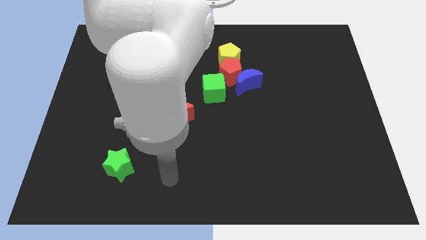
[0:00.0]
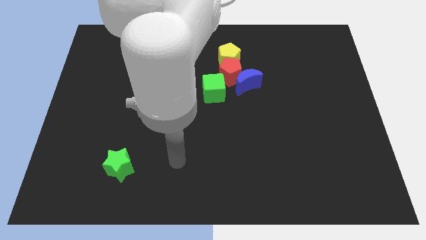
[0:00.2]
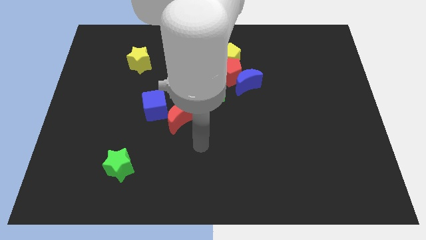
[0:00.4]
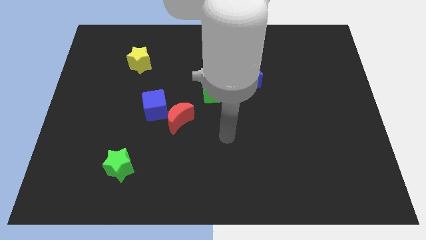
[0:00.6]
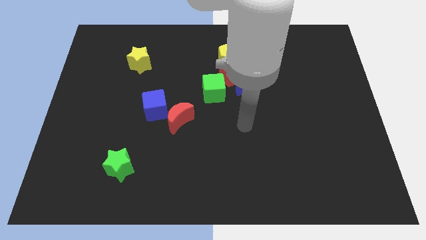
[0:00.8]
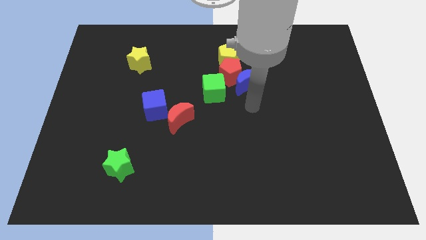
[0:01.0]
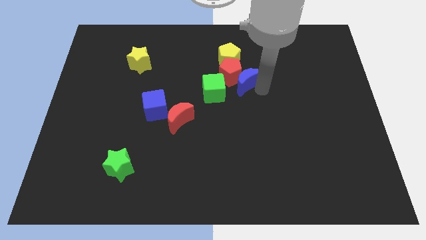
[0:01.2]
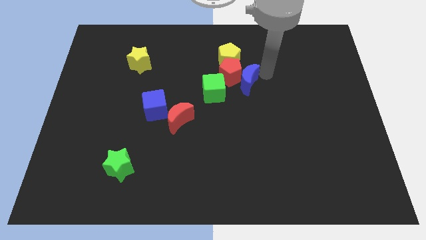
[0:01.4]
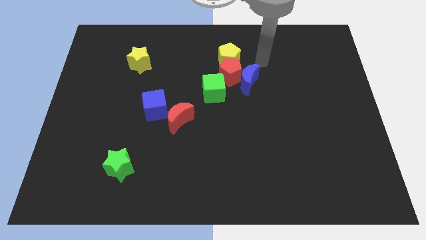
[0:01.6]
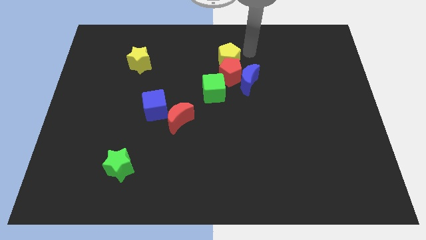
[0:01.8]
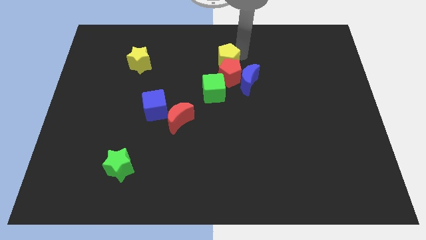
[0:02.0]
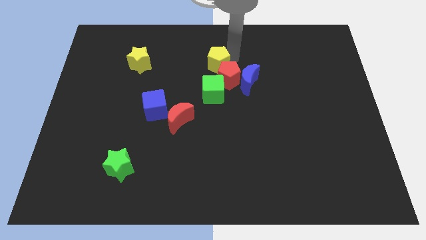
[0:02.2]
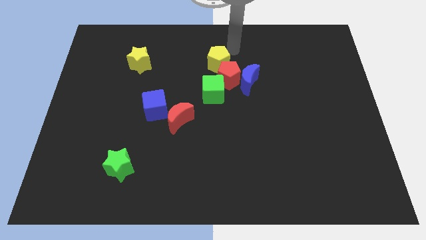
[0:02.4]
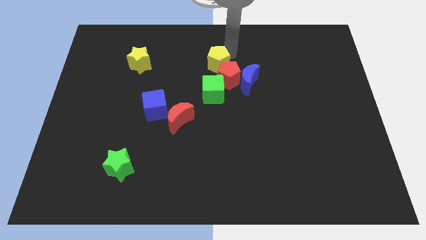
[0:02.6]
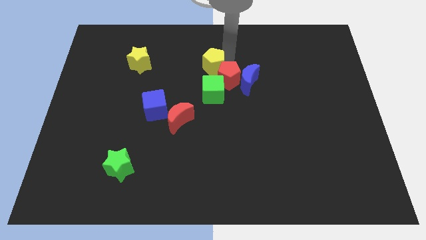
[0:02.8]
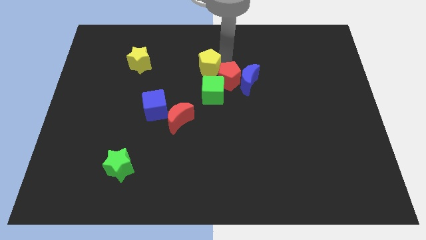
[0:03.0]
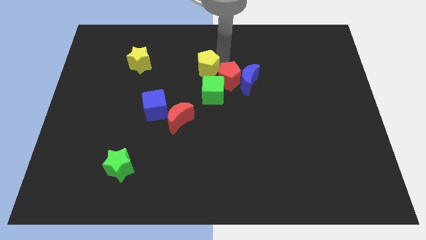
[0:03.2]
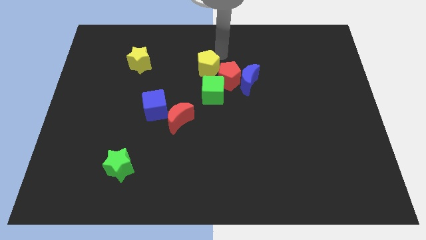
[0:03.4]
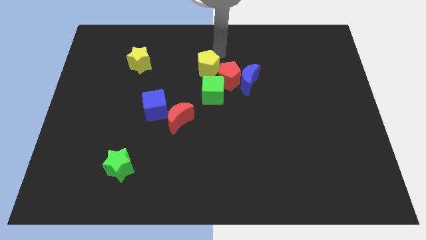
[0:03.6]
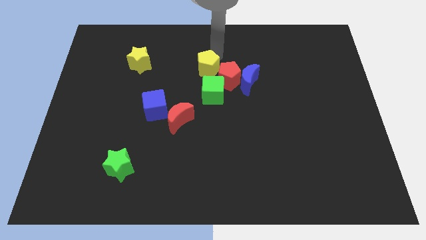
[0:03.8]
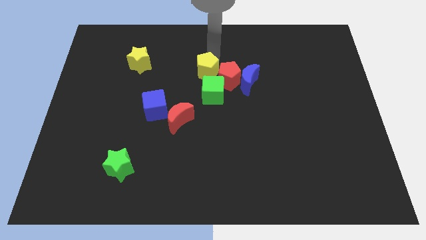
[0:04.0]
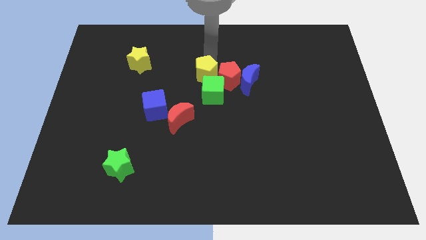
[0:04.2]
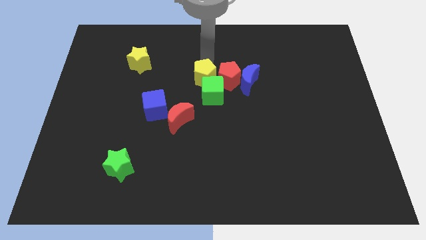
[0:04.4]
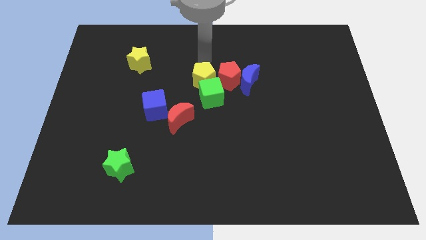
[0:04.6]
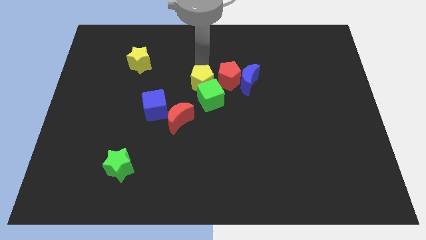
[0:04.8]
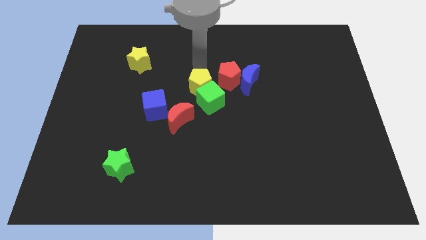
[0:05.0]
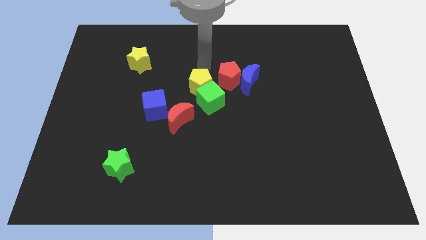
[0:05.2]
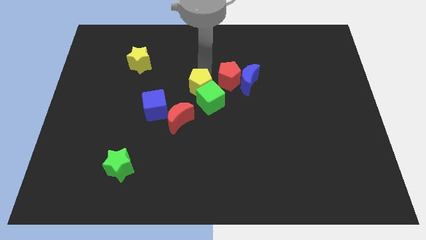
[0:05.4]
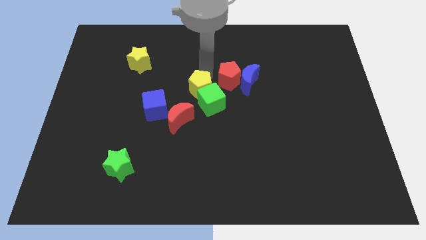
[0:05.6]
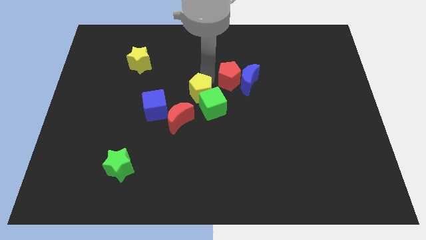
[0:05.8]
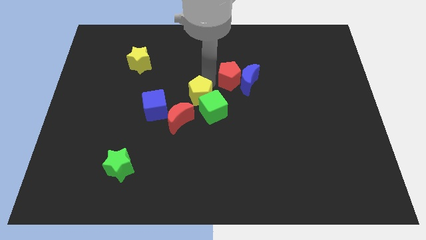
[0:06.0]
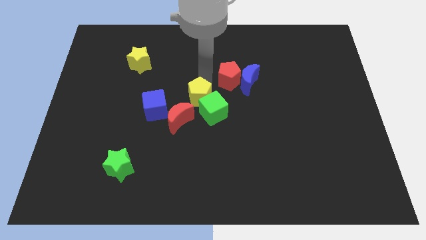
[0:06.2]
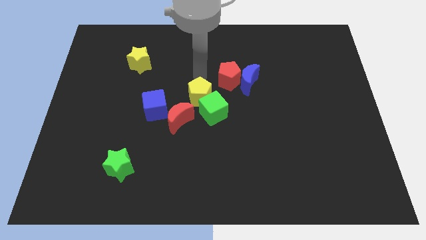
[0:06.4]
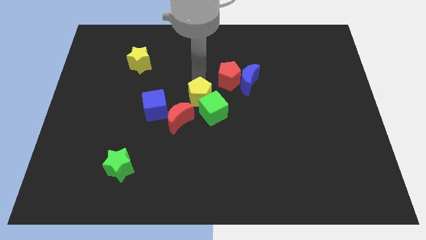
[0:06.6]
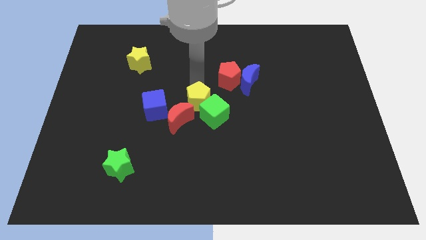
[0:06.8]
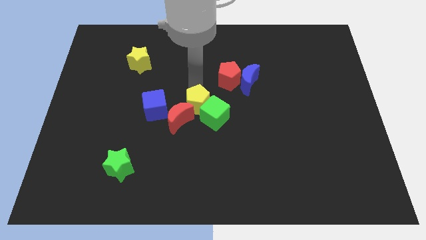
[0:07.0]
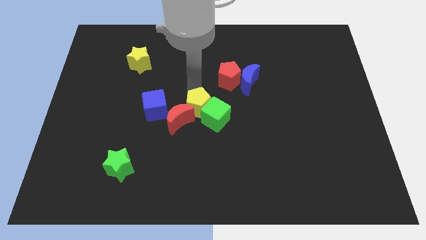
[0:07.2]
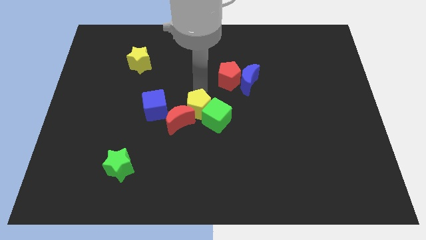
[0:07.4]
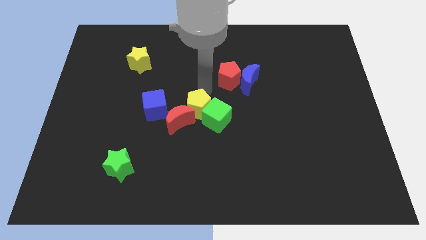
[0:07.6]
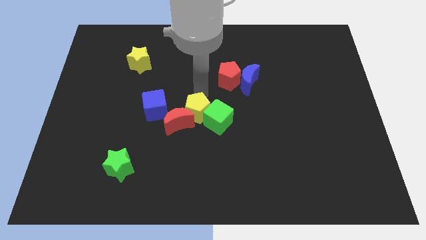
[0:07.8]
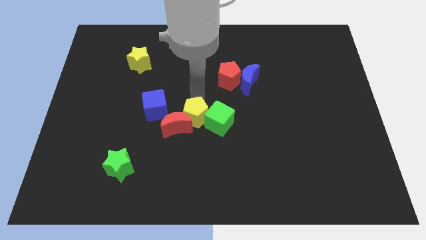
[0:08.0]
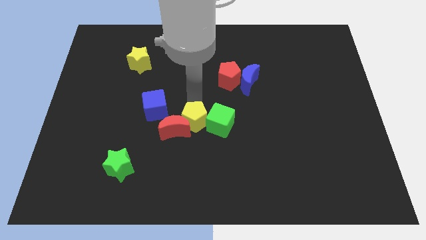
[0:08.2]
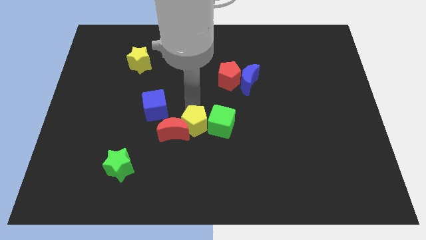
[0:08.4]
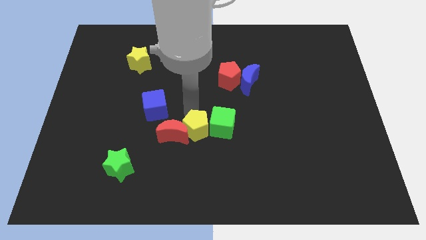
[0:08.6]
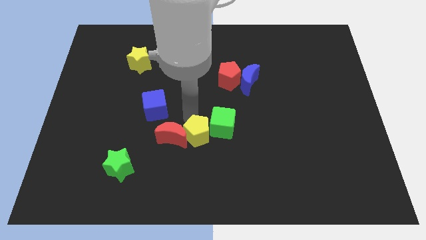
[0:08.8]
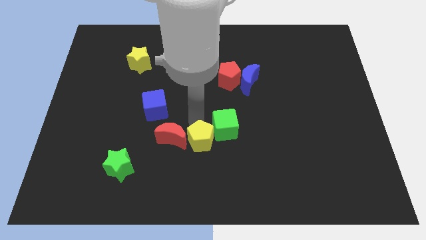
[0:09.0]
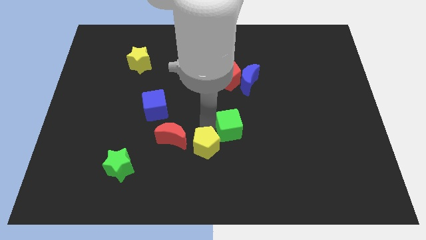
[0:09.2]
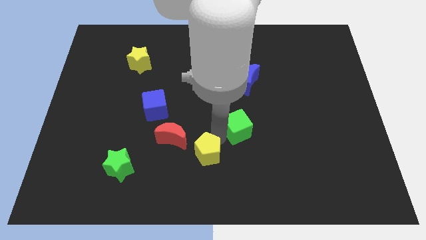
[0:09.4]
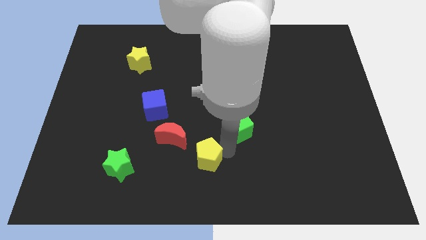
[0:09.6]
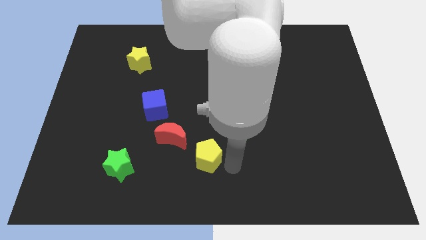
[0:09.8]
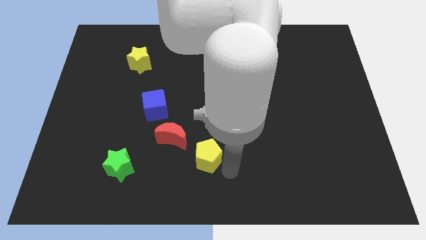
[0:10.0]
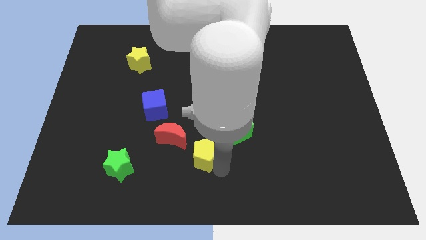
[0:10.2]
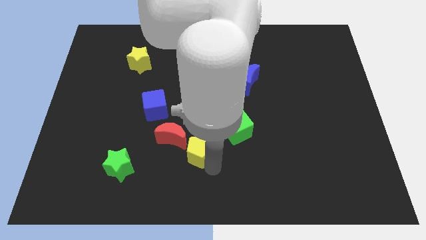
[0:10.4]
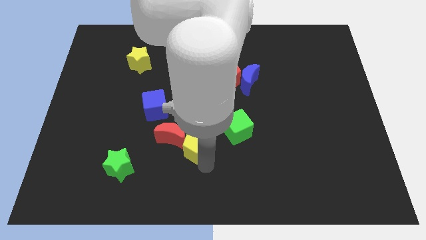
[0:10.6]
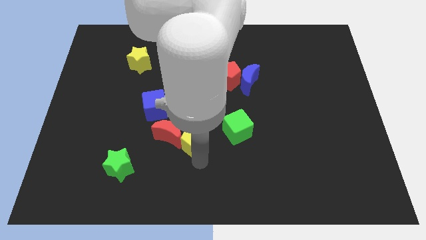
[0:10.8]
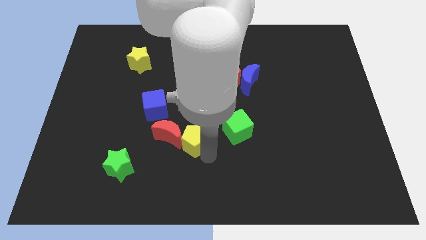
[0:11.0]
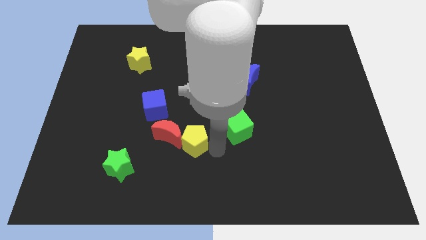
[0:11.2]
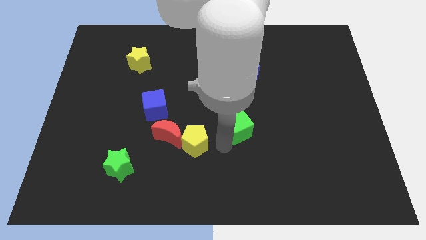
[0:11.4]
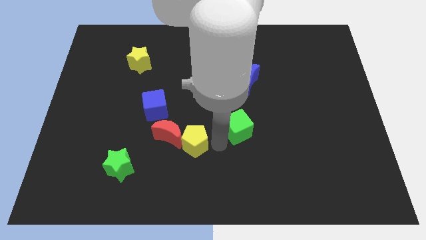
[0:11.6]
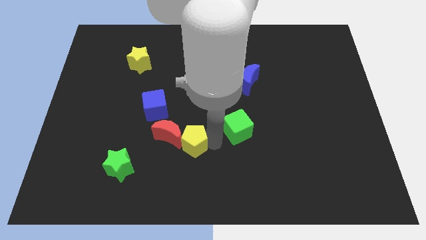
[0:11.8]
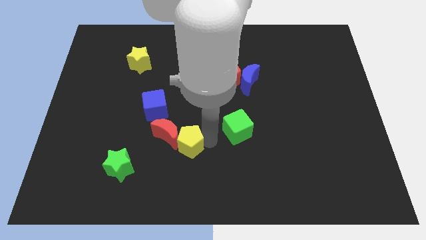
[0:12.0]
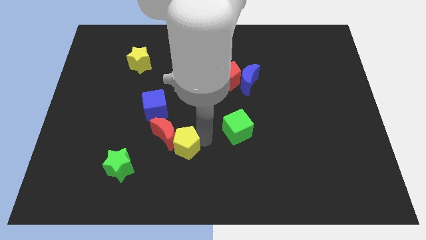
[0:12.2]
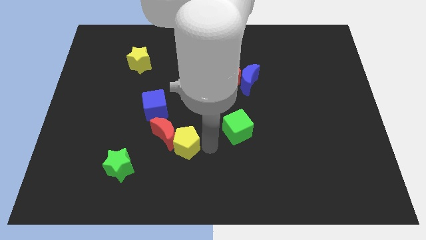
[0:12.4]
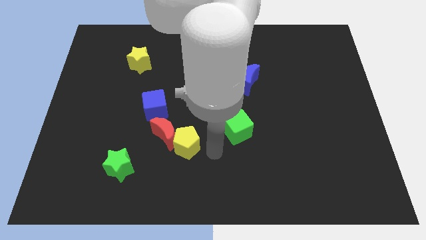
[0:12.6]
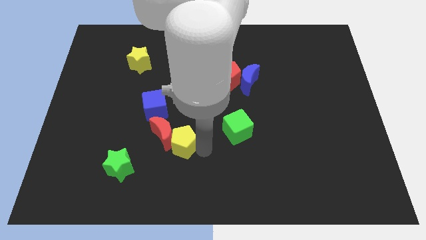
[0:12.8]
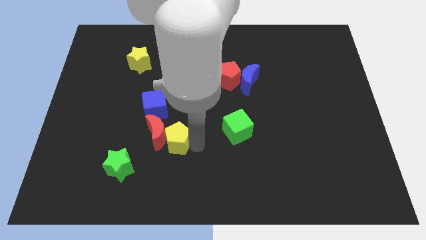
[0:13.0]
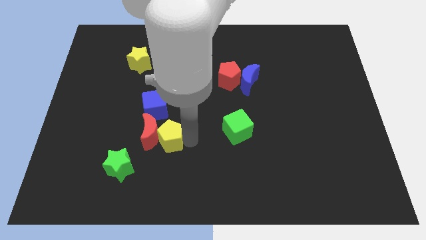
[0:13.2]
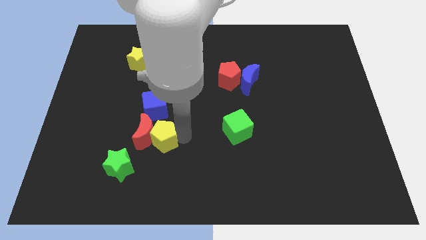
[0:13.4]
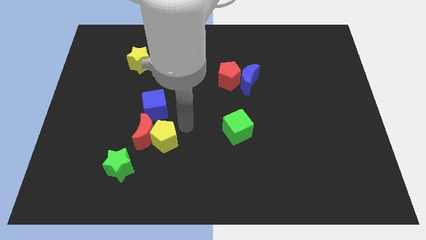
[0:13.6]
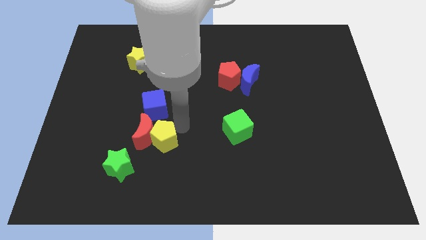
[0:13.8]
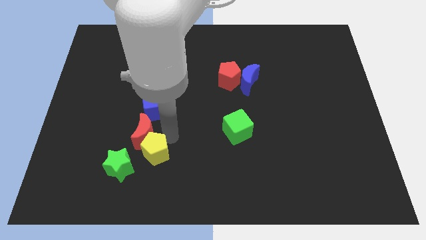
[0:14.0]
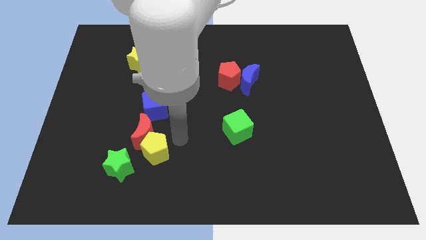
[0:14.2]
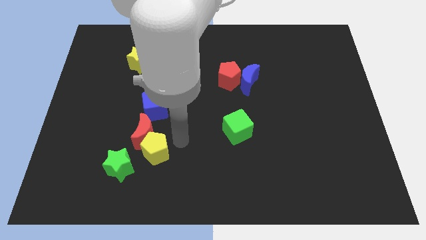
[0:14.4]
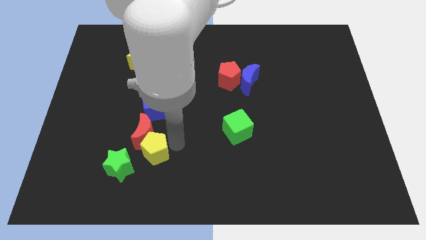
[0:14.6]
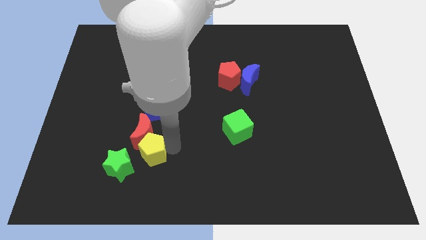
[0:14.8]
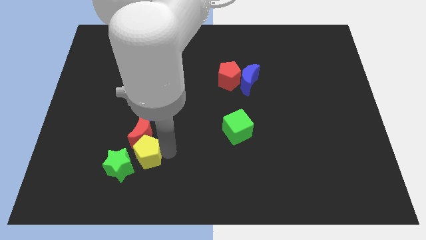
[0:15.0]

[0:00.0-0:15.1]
push the yellow pentagon next to the green star
